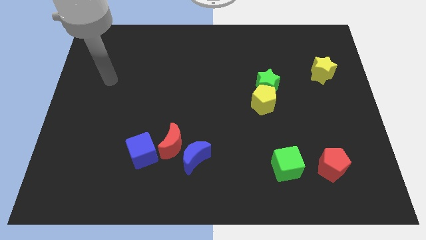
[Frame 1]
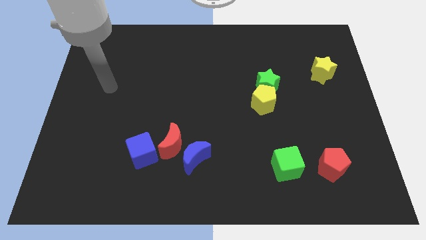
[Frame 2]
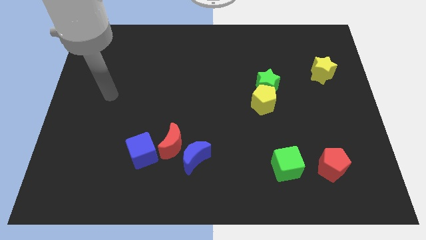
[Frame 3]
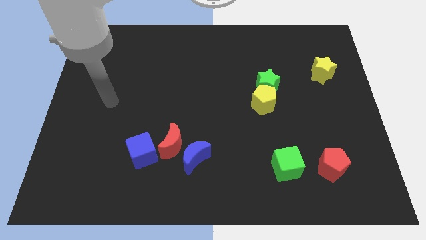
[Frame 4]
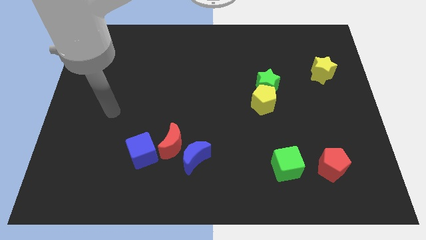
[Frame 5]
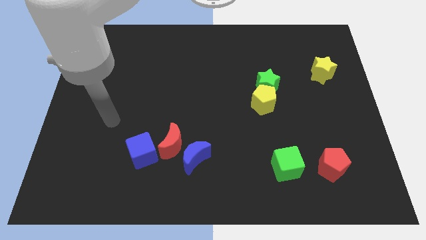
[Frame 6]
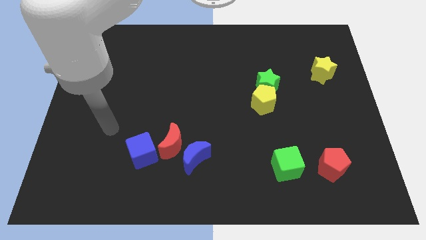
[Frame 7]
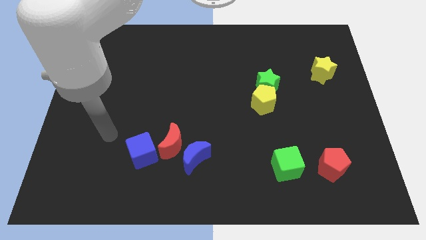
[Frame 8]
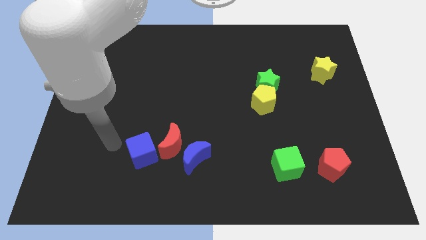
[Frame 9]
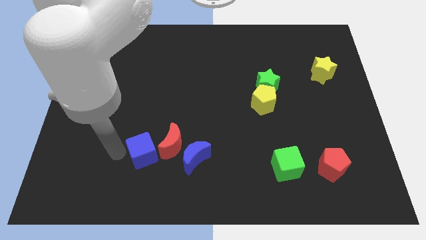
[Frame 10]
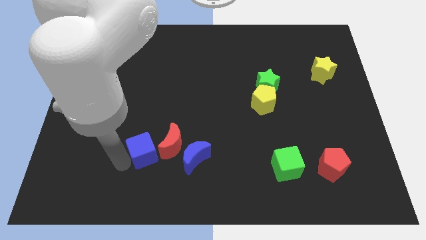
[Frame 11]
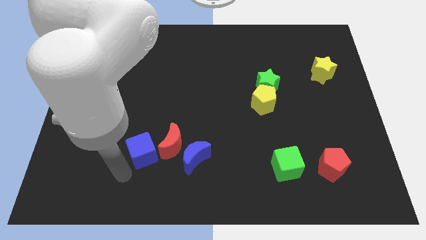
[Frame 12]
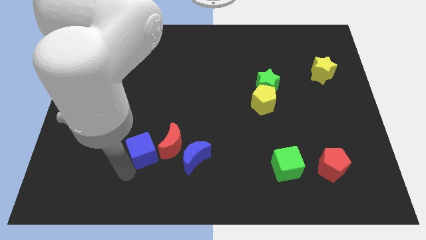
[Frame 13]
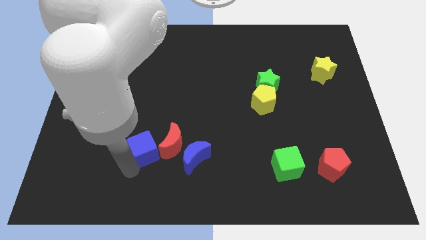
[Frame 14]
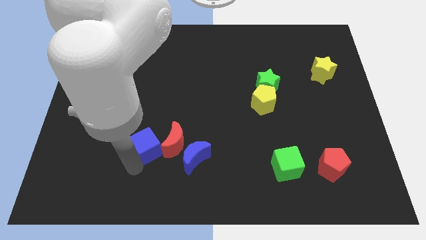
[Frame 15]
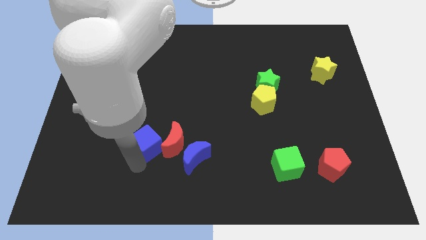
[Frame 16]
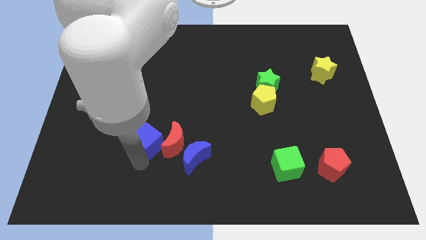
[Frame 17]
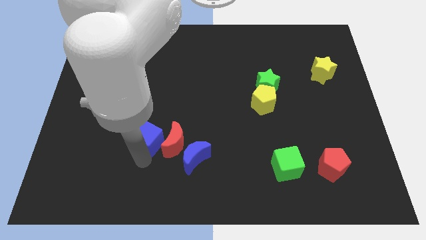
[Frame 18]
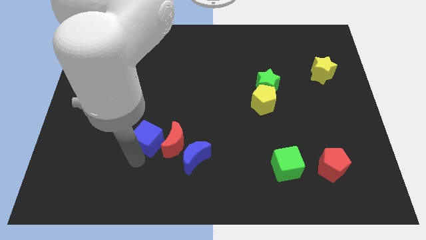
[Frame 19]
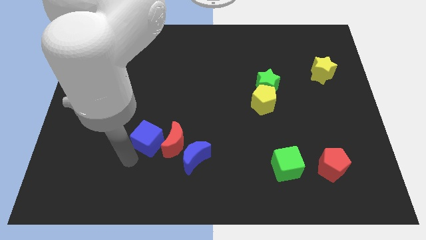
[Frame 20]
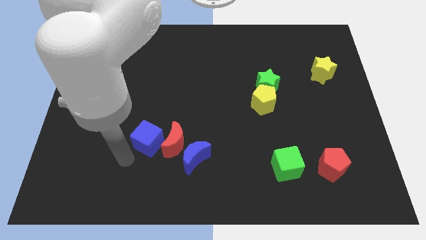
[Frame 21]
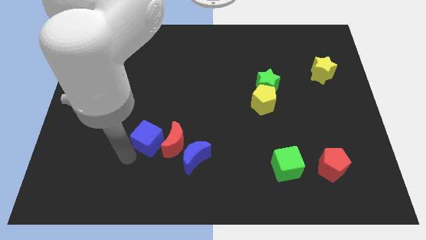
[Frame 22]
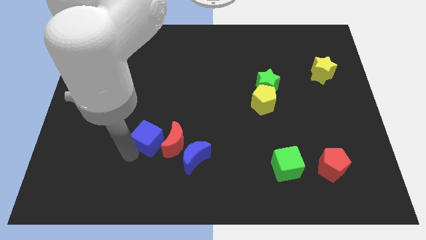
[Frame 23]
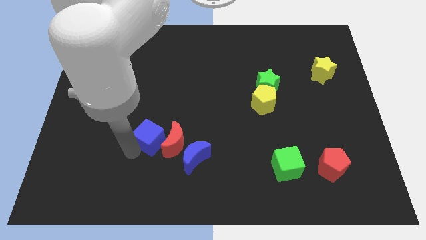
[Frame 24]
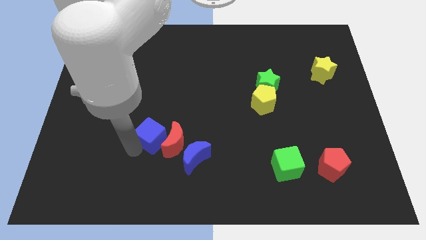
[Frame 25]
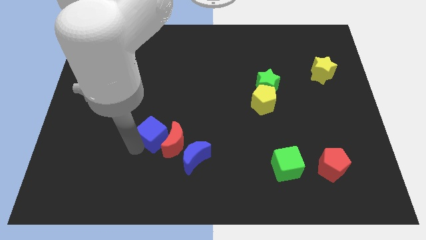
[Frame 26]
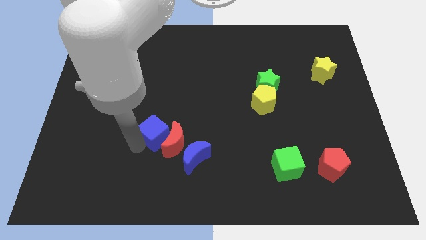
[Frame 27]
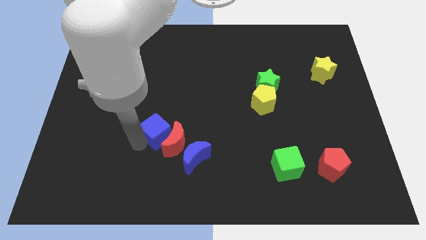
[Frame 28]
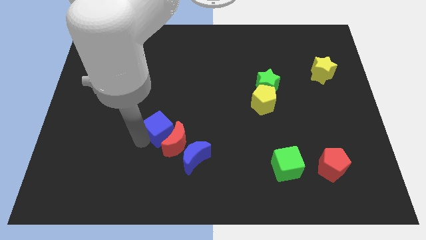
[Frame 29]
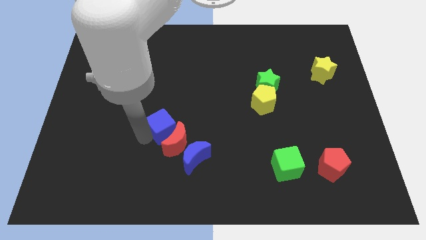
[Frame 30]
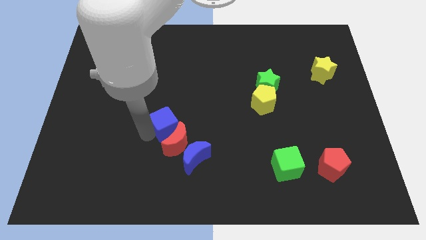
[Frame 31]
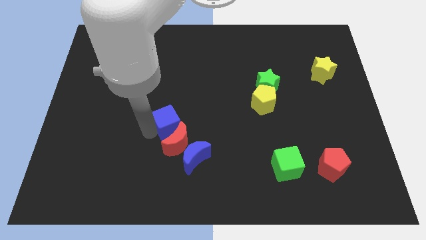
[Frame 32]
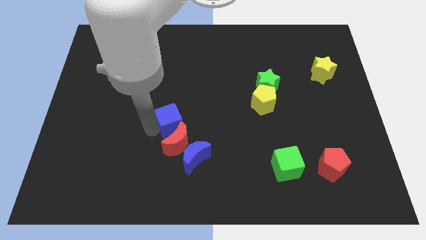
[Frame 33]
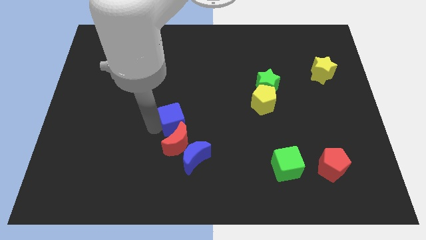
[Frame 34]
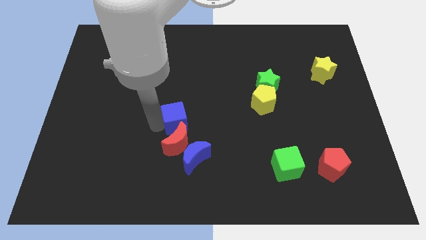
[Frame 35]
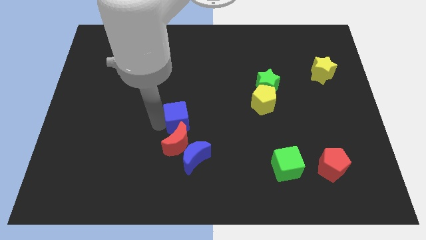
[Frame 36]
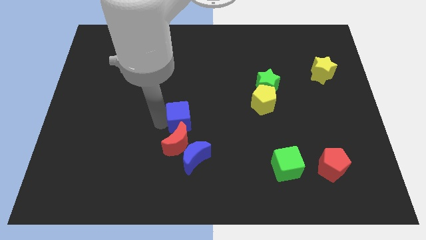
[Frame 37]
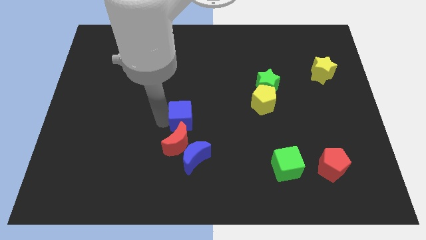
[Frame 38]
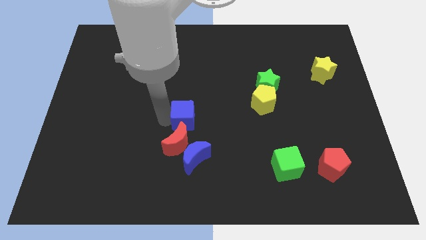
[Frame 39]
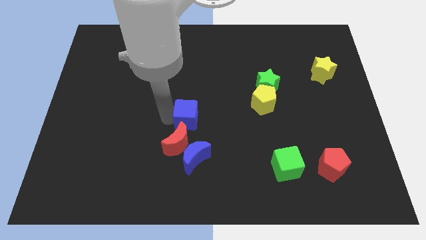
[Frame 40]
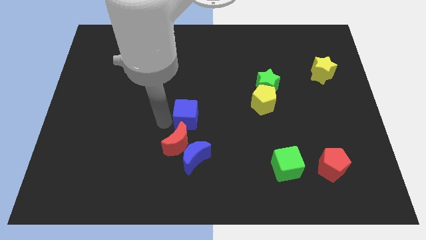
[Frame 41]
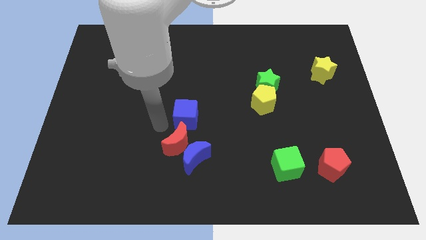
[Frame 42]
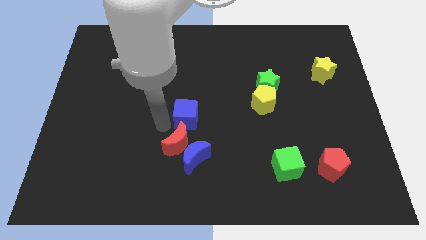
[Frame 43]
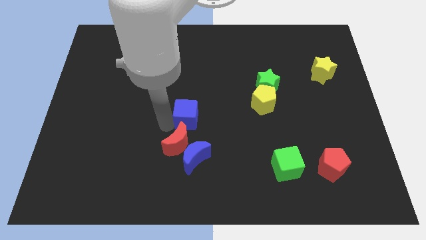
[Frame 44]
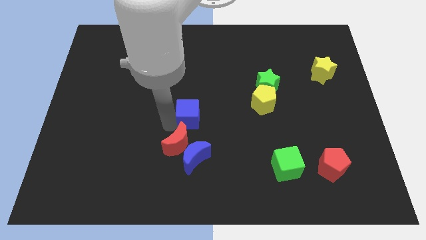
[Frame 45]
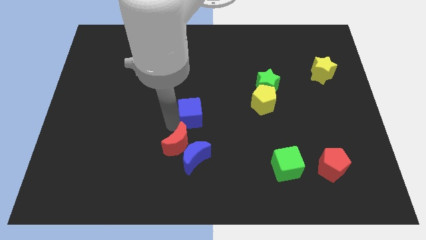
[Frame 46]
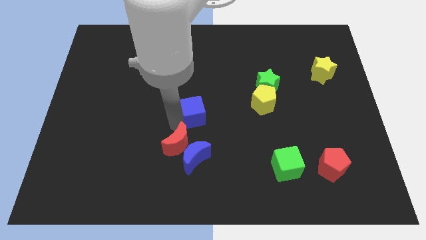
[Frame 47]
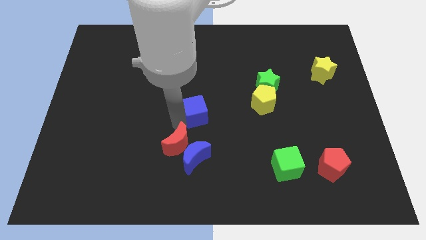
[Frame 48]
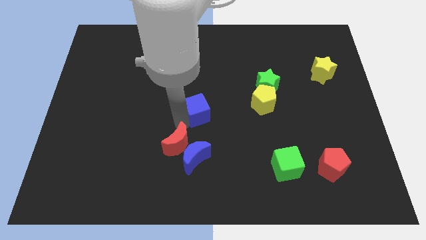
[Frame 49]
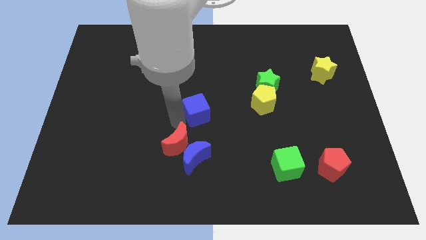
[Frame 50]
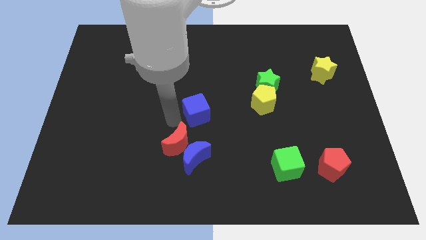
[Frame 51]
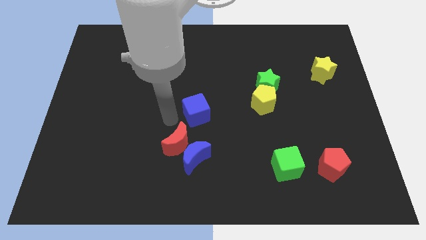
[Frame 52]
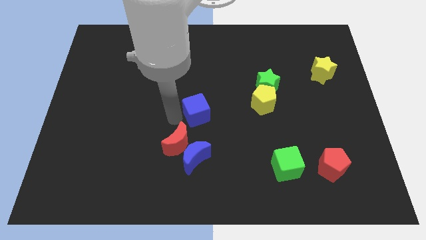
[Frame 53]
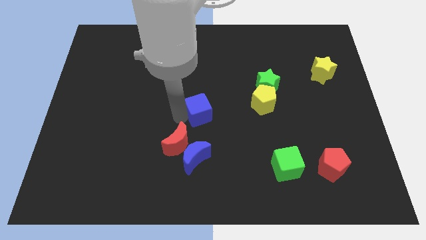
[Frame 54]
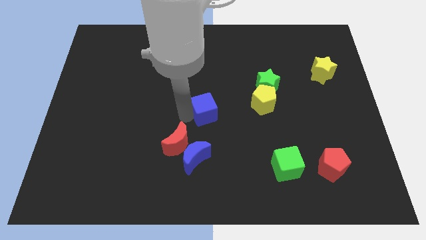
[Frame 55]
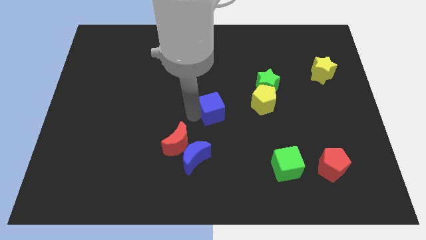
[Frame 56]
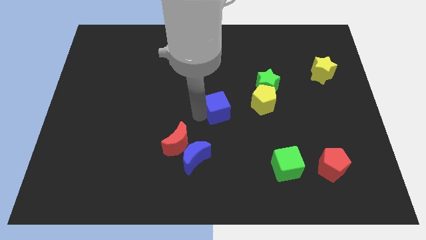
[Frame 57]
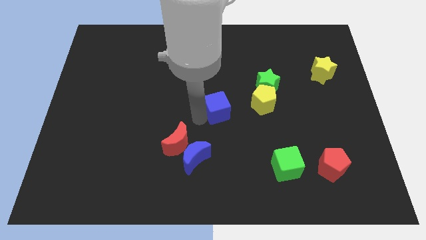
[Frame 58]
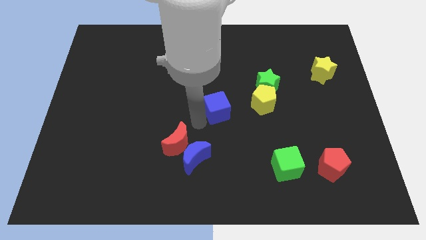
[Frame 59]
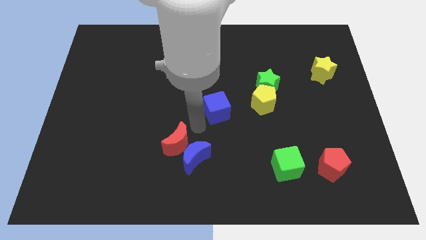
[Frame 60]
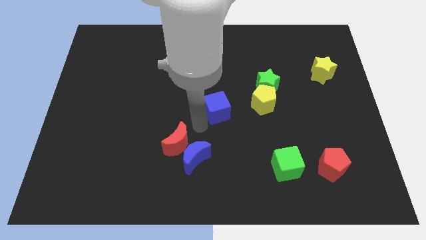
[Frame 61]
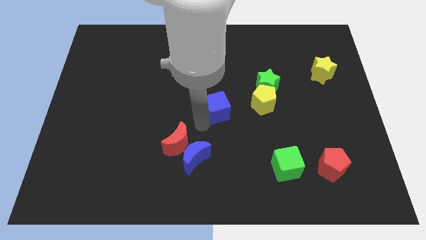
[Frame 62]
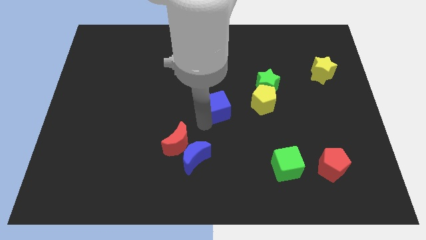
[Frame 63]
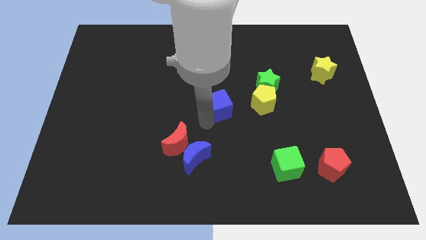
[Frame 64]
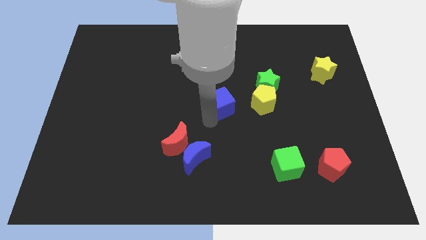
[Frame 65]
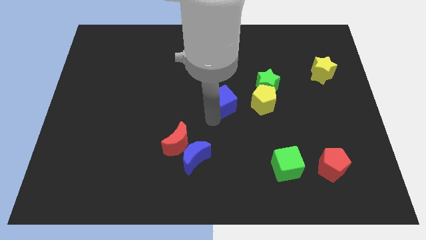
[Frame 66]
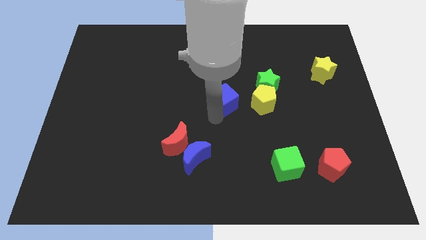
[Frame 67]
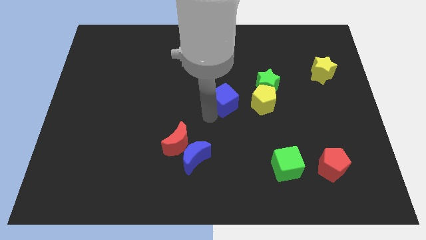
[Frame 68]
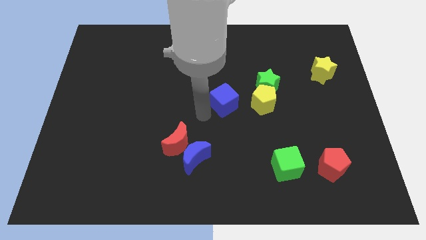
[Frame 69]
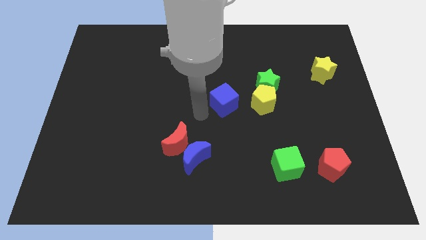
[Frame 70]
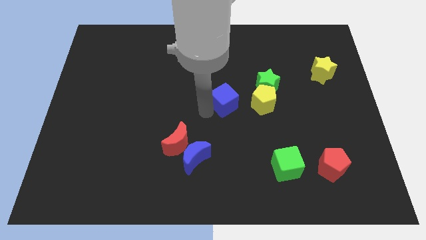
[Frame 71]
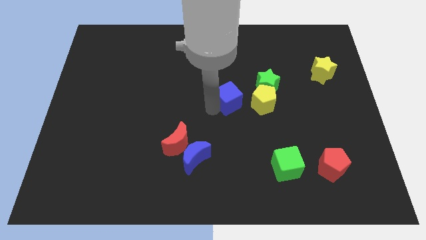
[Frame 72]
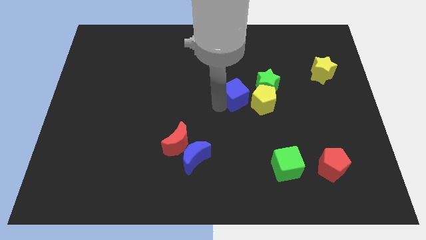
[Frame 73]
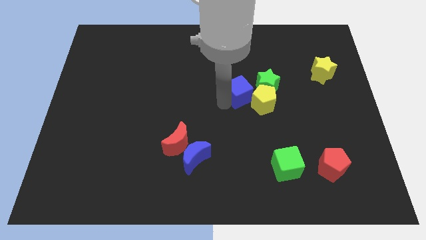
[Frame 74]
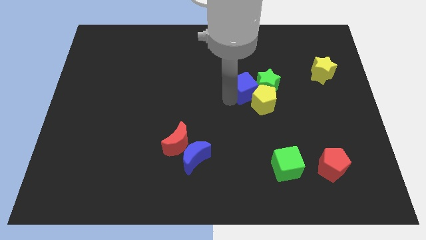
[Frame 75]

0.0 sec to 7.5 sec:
put the blue cube to the green star
